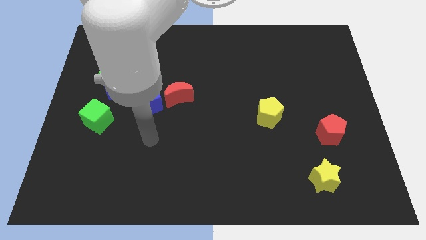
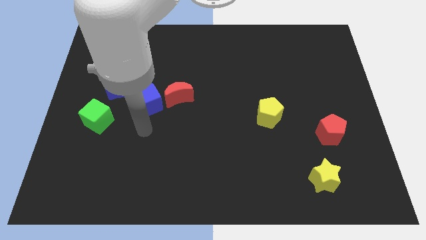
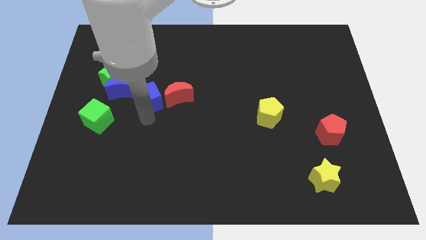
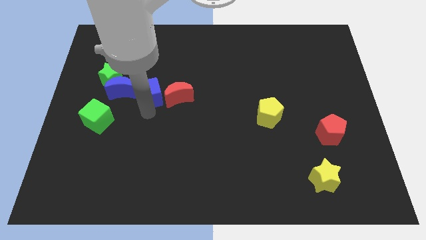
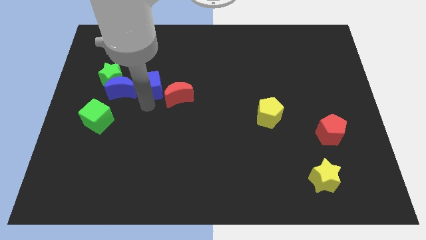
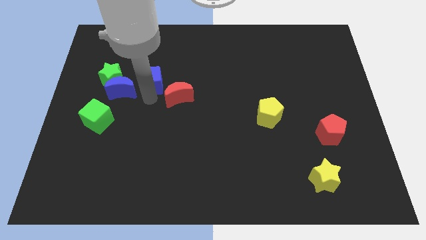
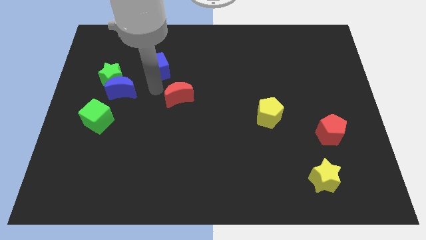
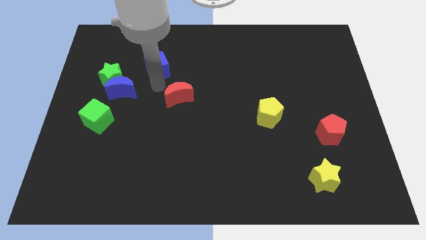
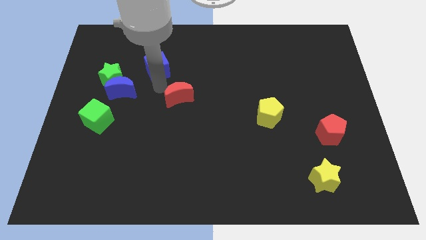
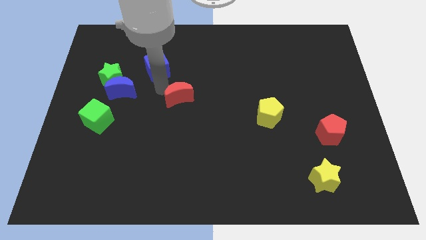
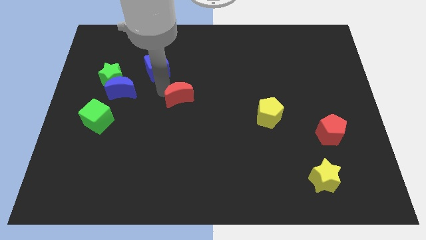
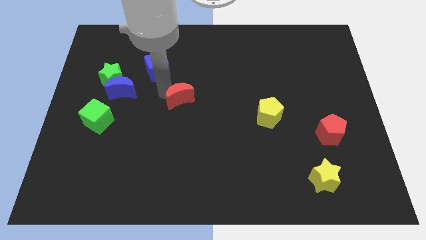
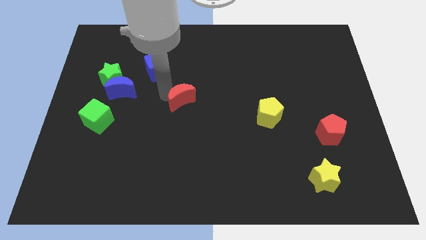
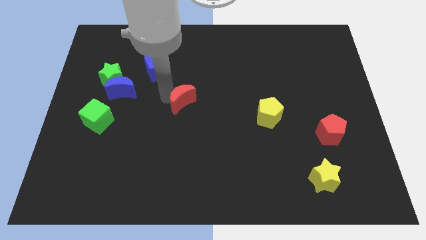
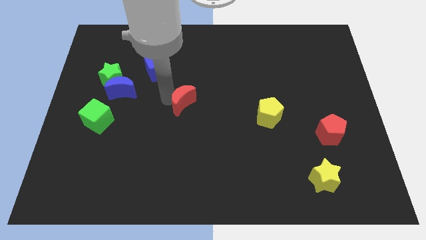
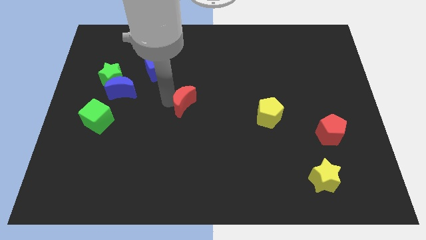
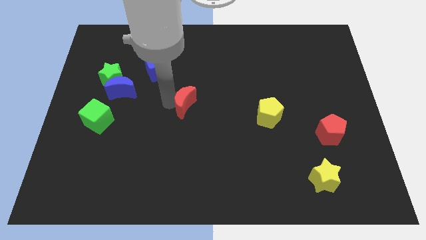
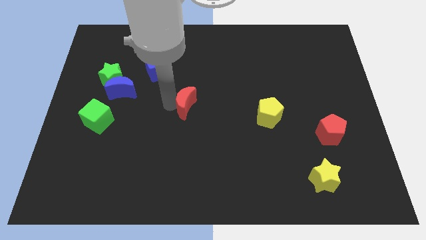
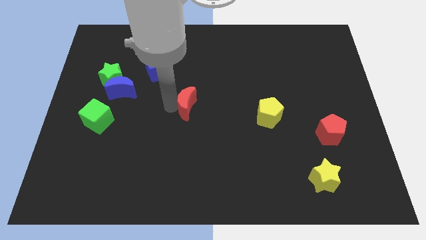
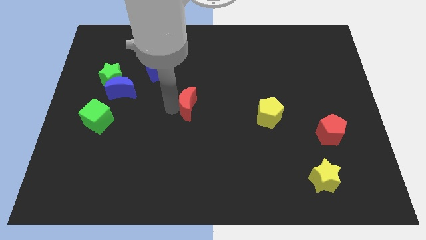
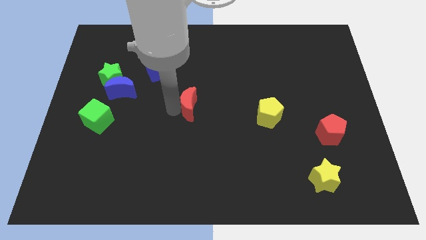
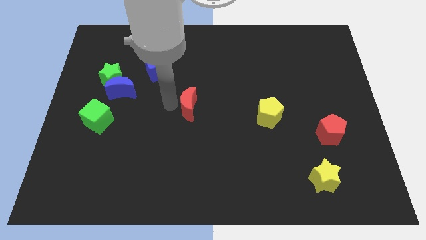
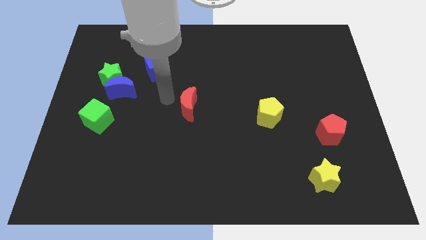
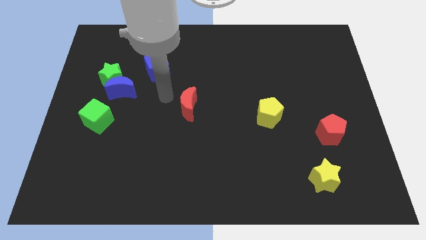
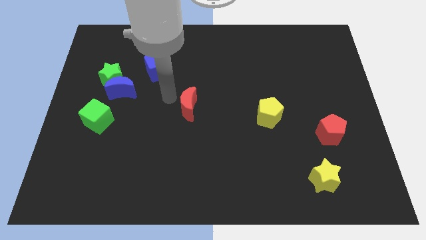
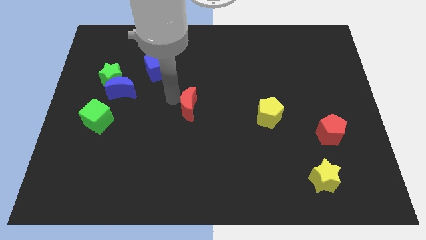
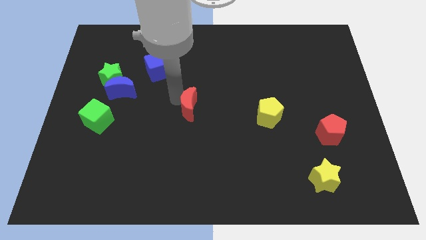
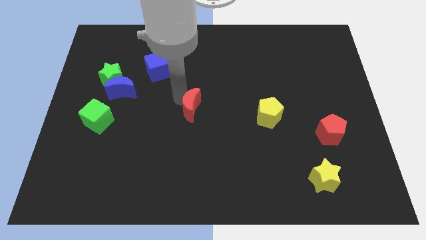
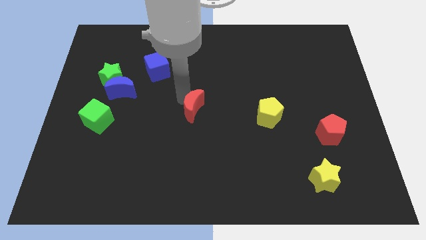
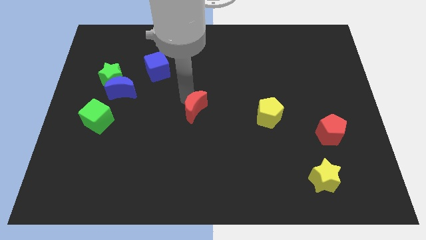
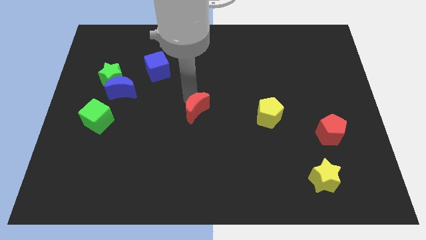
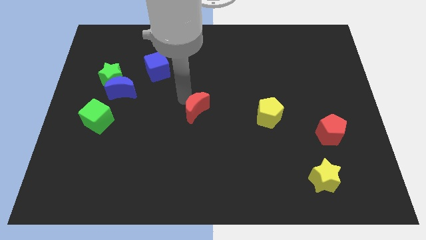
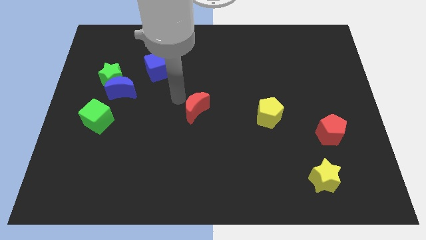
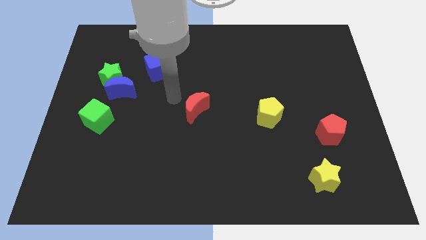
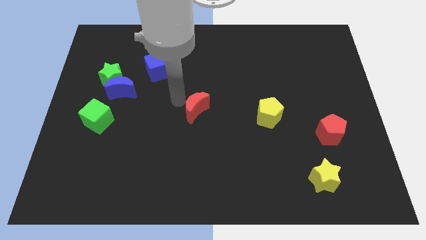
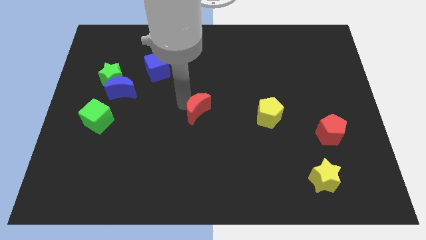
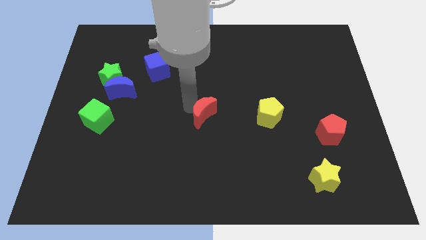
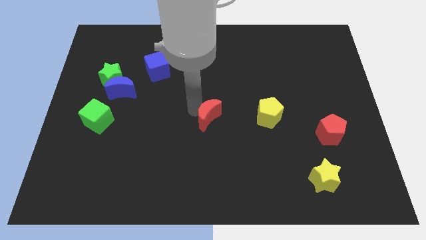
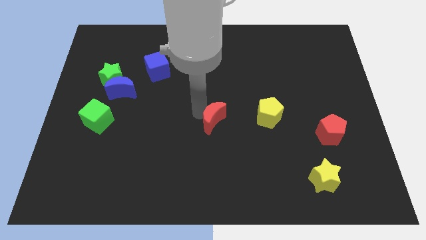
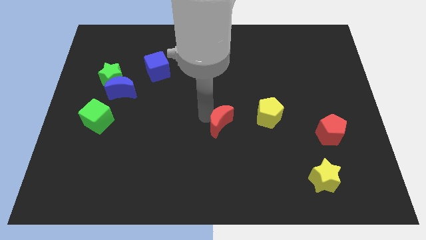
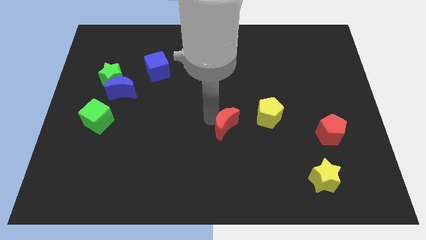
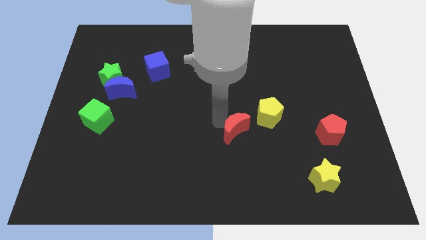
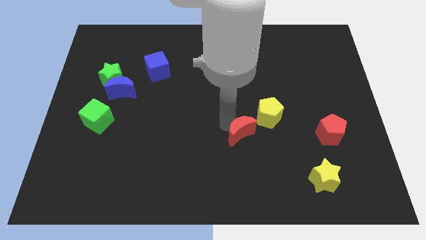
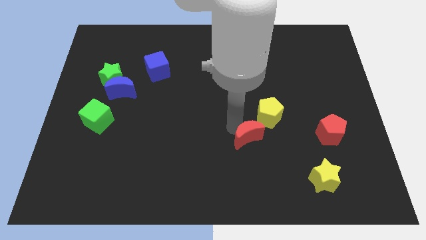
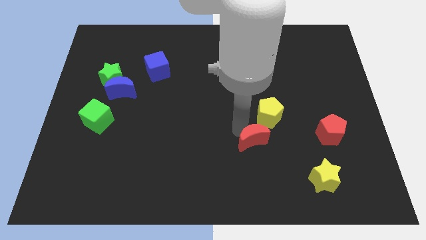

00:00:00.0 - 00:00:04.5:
push the red moon down and then to the right

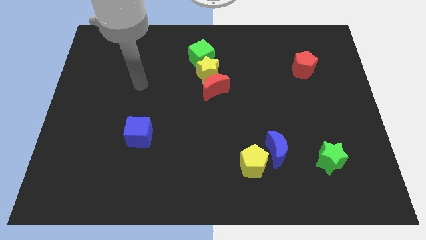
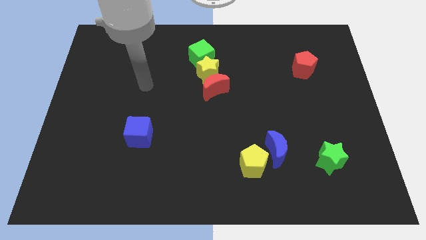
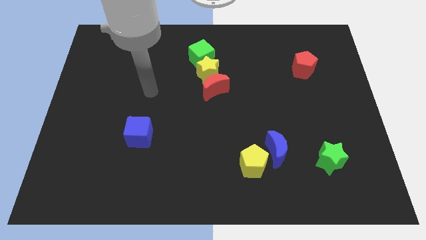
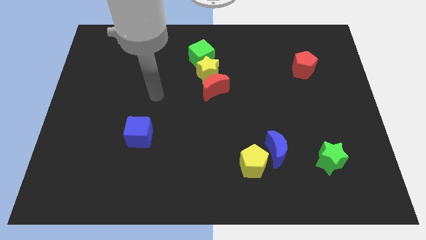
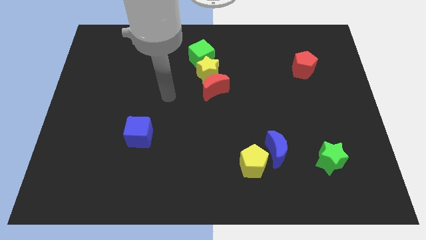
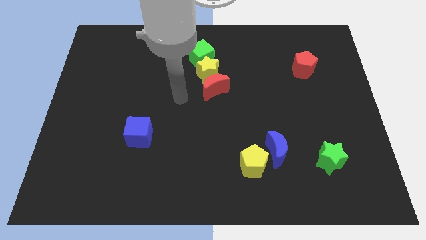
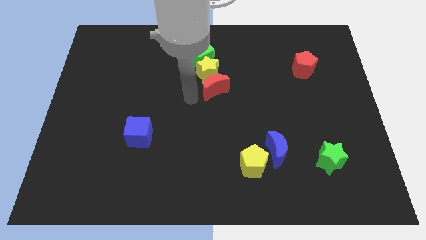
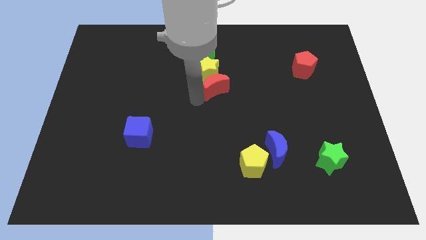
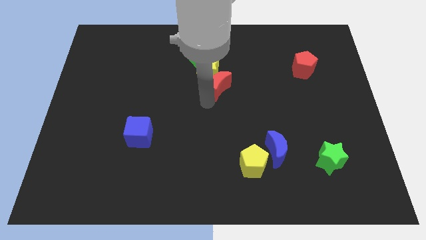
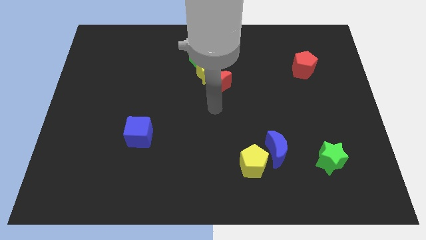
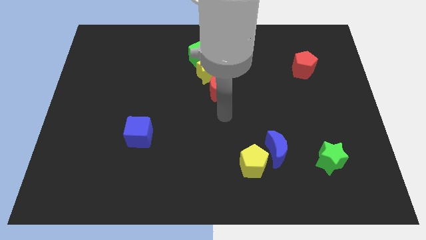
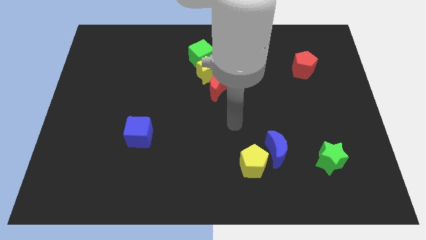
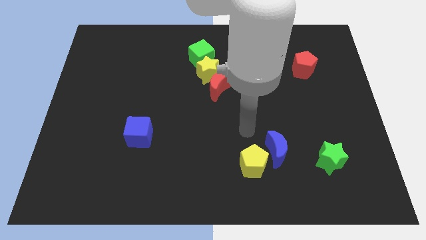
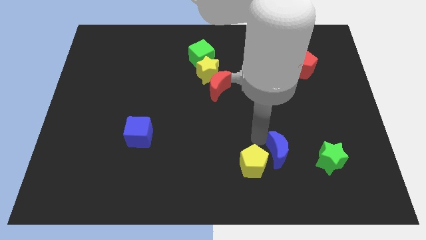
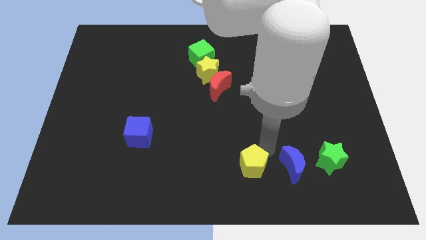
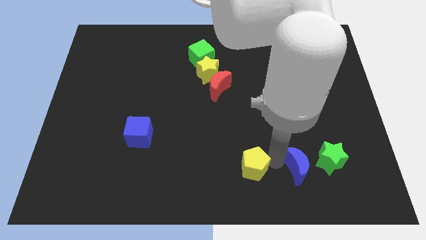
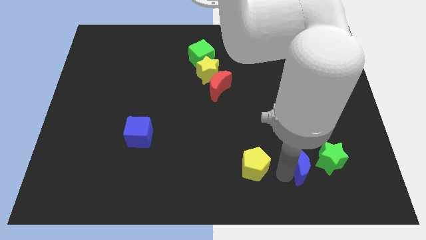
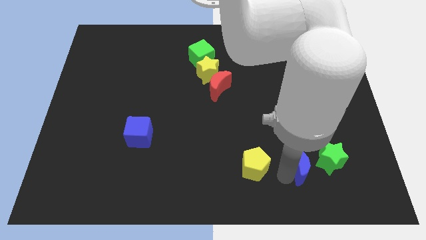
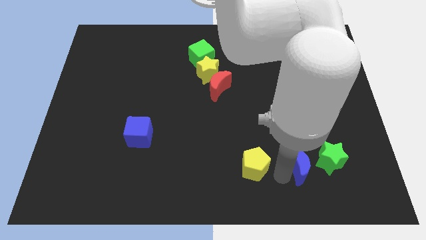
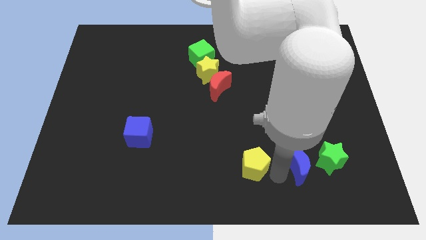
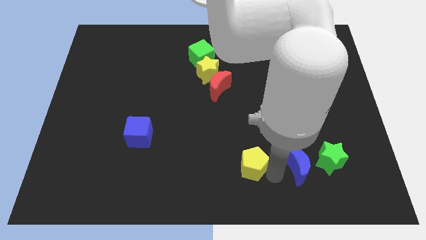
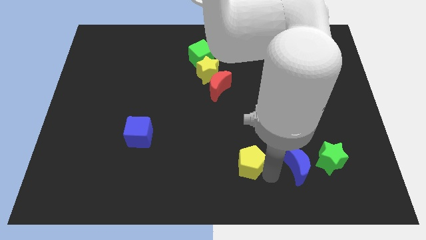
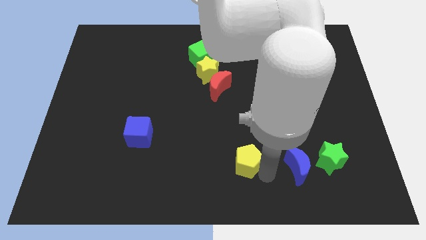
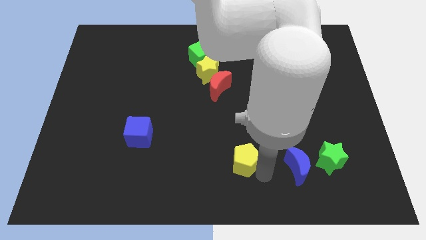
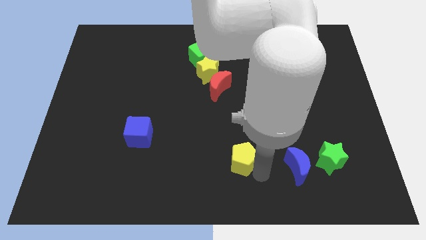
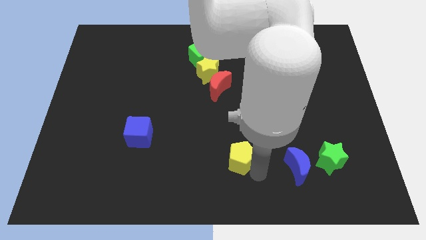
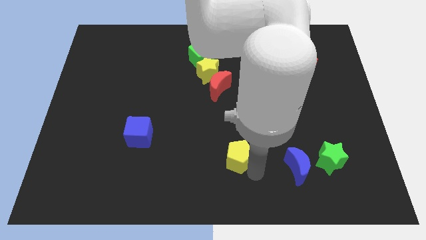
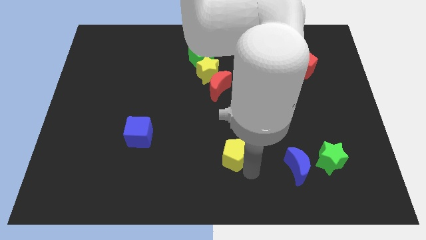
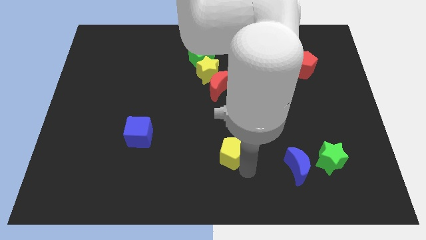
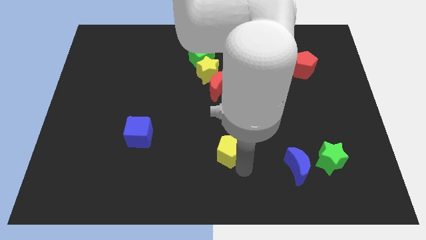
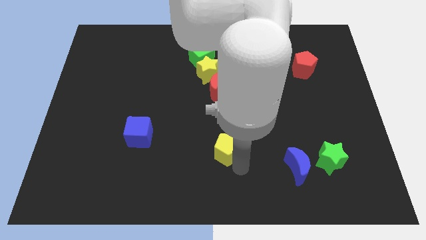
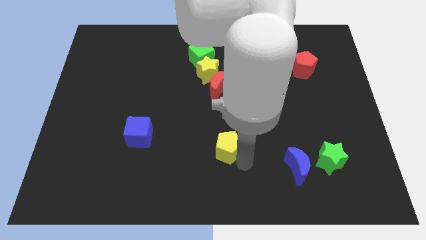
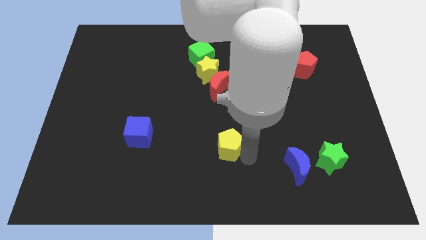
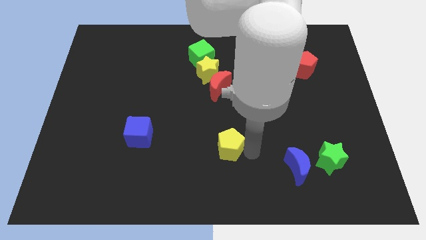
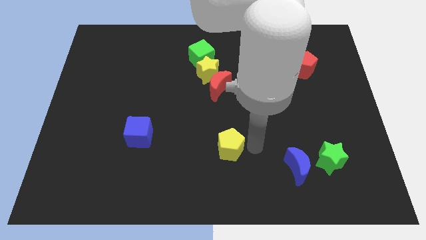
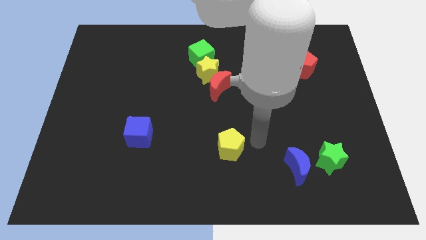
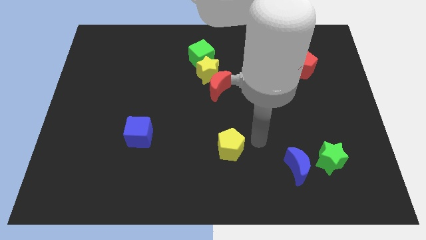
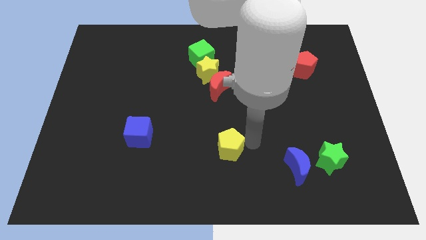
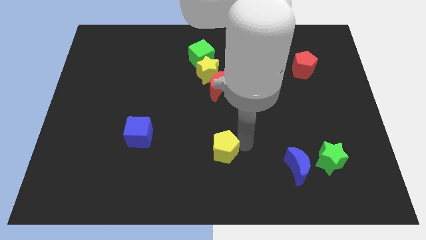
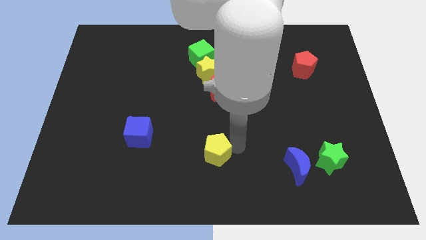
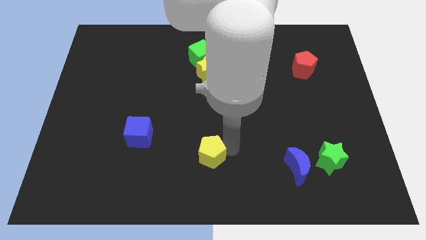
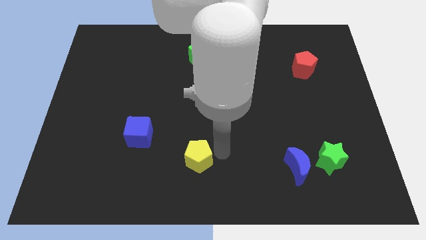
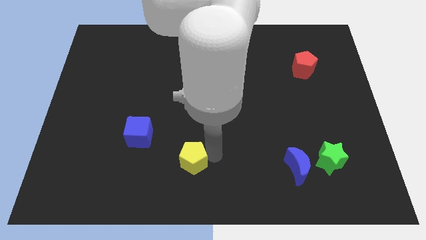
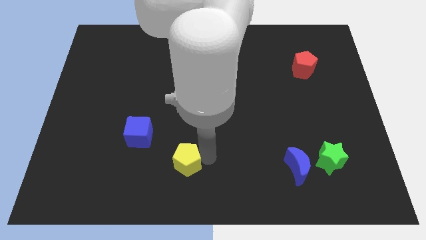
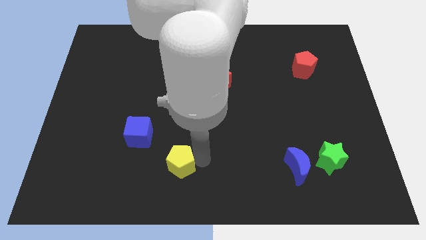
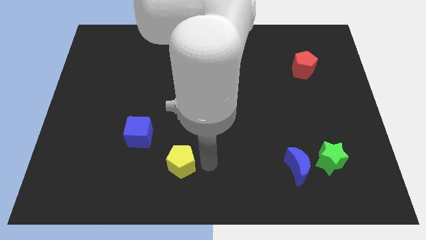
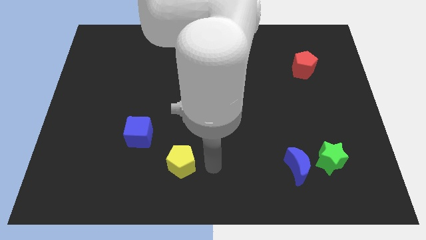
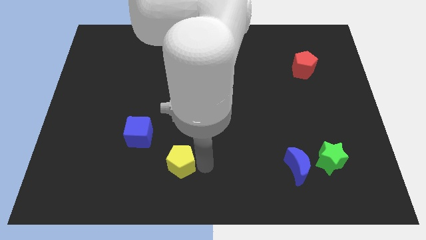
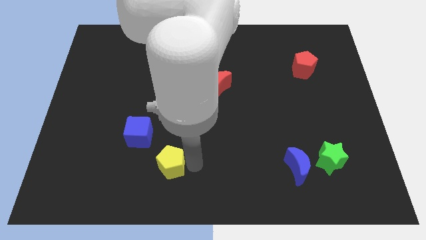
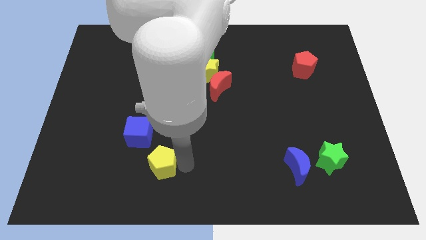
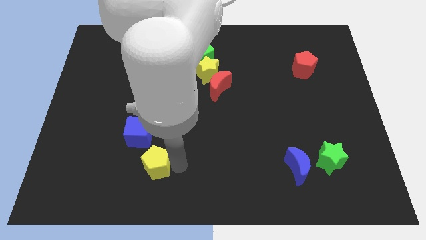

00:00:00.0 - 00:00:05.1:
push the yellow pentagon to the left
